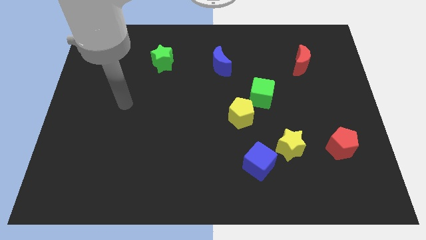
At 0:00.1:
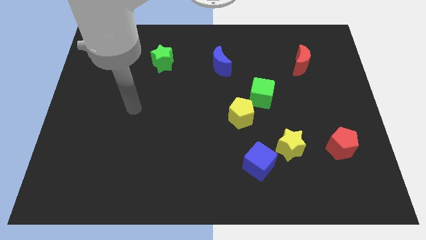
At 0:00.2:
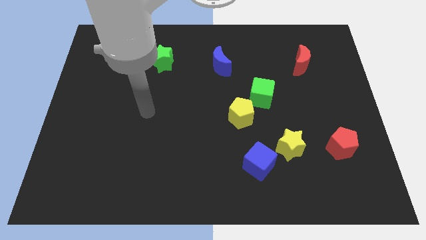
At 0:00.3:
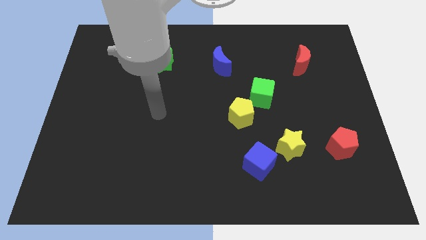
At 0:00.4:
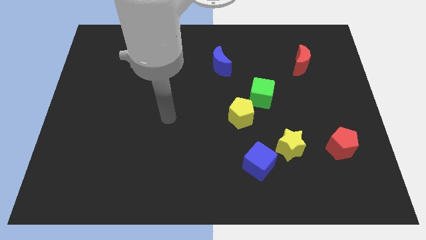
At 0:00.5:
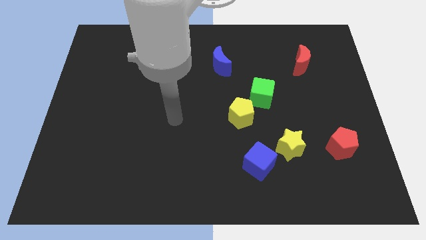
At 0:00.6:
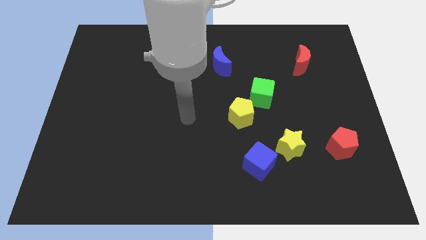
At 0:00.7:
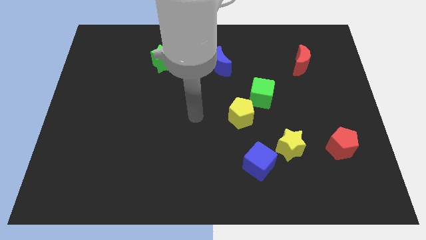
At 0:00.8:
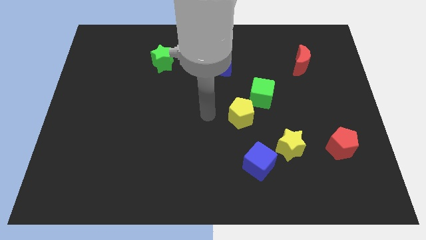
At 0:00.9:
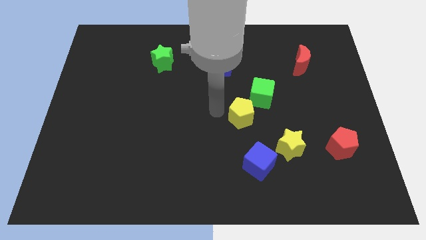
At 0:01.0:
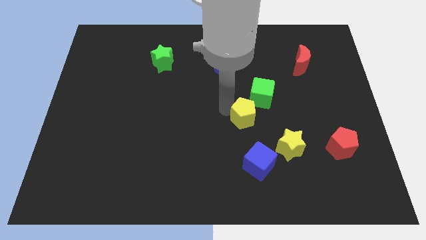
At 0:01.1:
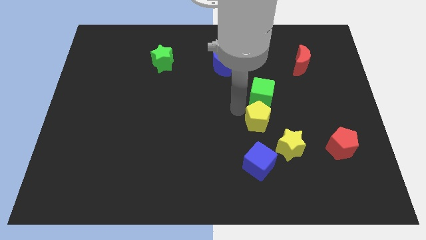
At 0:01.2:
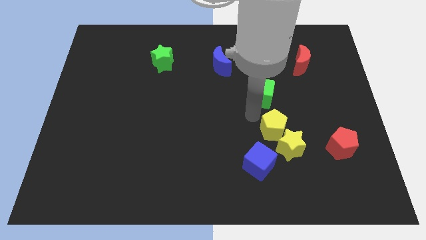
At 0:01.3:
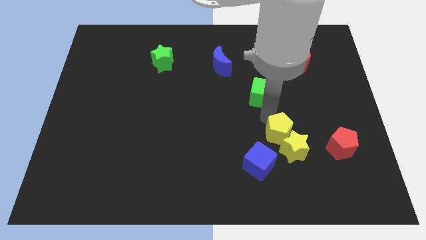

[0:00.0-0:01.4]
separate the green cube from the yellow pentagon

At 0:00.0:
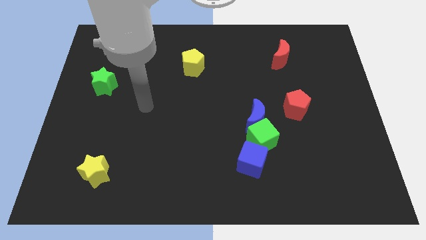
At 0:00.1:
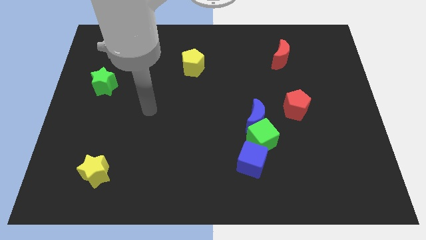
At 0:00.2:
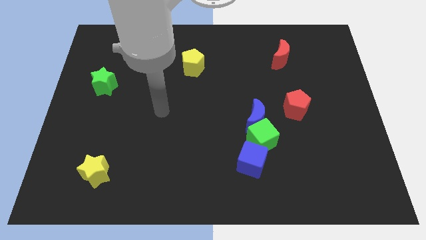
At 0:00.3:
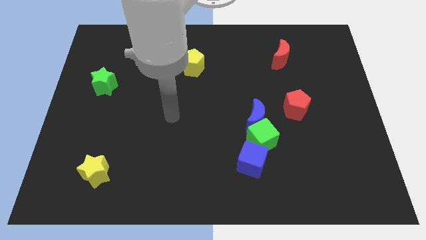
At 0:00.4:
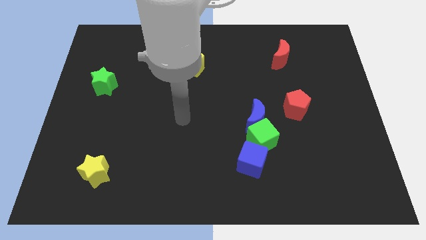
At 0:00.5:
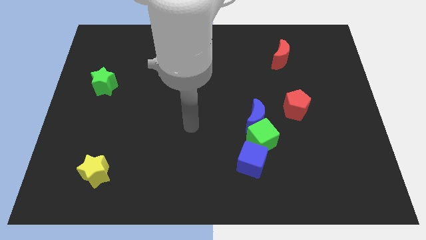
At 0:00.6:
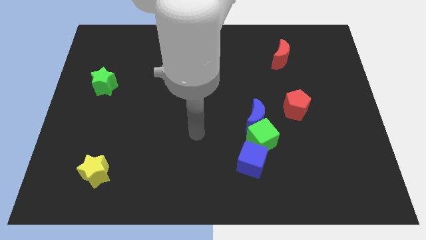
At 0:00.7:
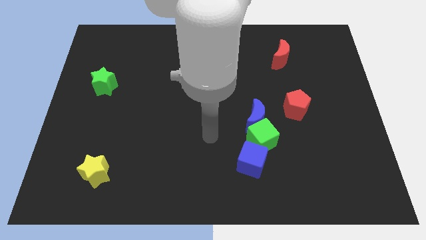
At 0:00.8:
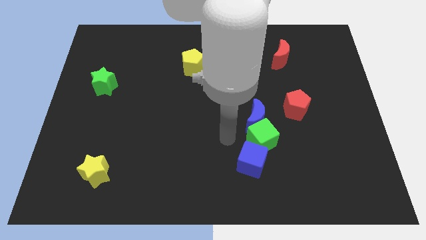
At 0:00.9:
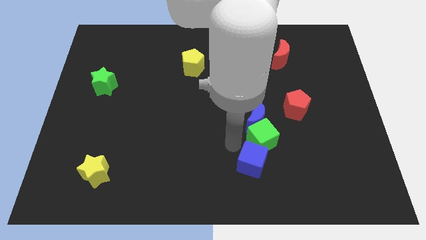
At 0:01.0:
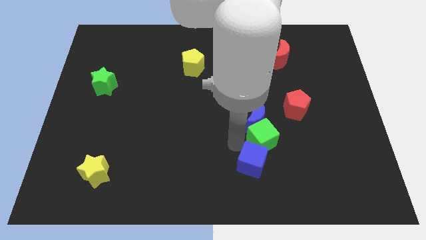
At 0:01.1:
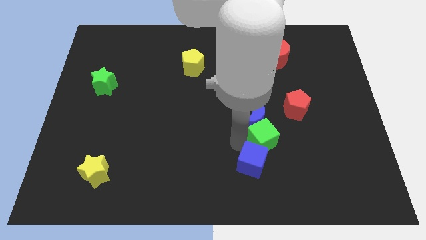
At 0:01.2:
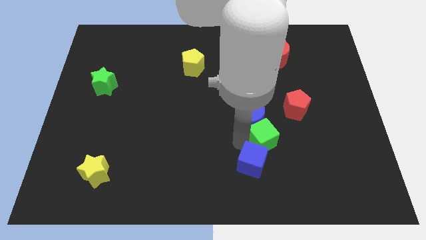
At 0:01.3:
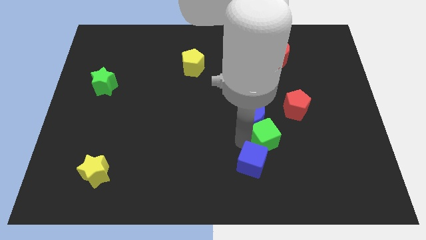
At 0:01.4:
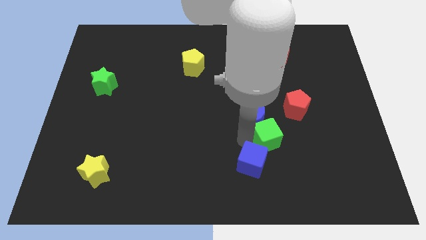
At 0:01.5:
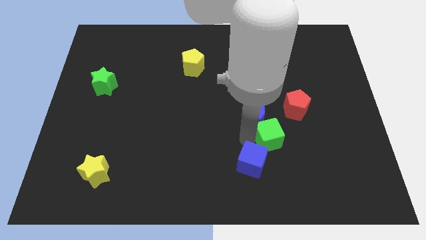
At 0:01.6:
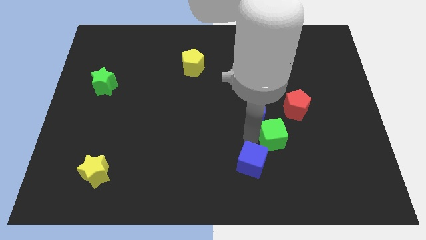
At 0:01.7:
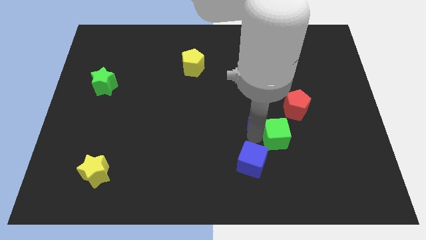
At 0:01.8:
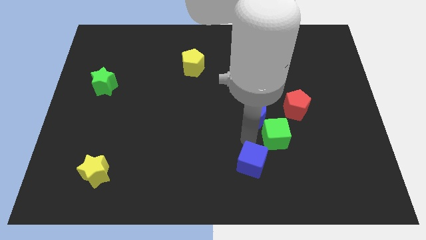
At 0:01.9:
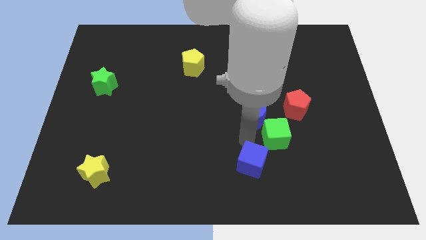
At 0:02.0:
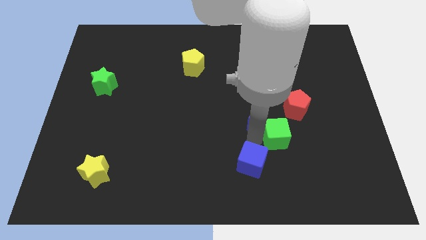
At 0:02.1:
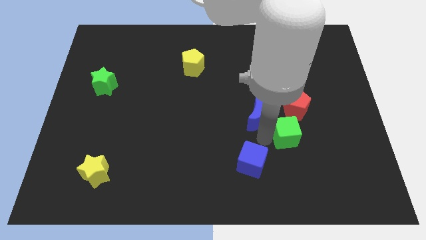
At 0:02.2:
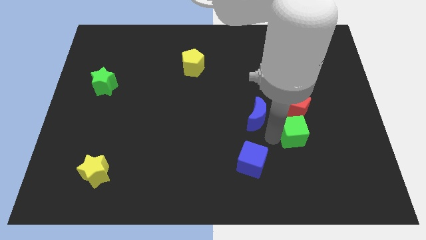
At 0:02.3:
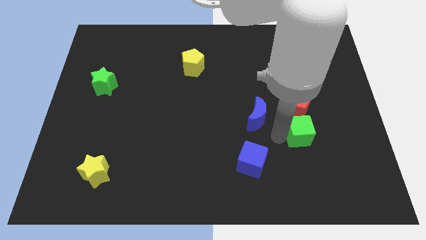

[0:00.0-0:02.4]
separate the green cube from the blue moon and blue cube

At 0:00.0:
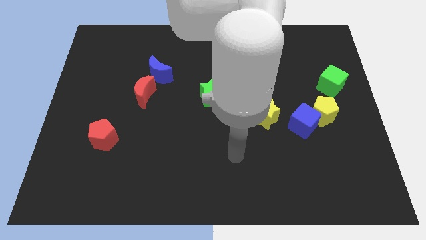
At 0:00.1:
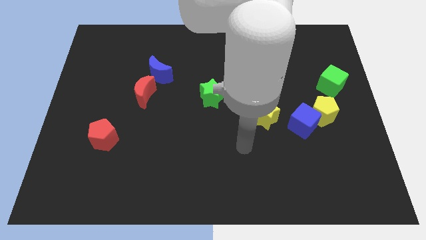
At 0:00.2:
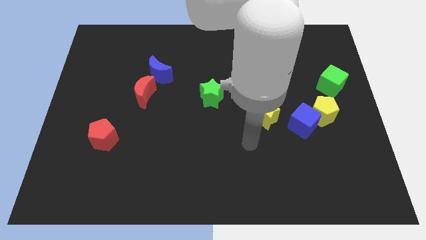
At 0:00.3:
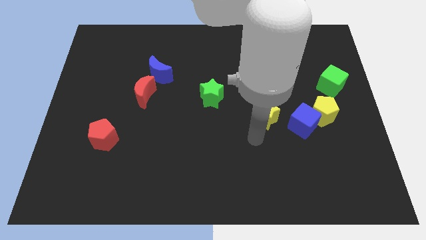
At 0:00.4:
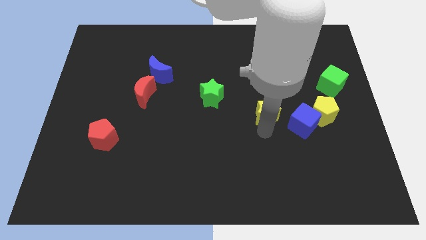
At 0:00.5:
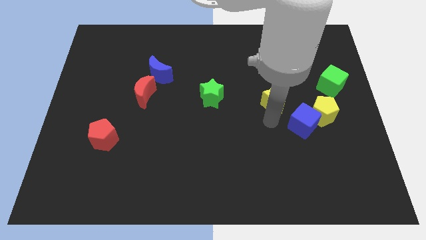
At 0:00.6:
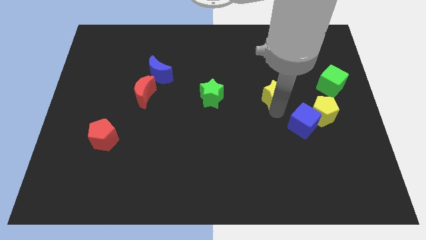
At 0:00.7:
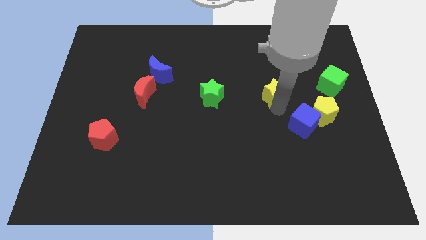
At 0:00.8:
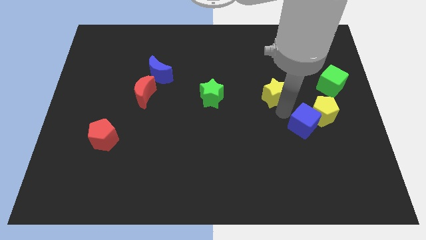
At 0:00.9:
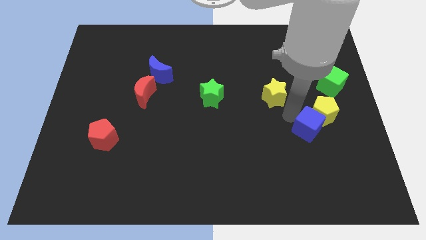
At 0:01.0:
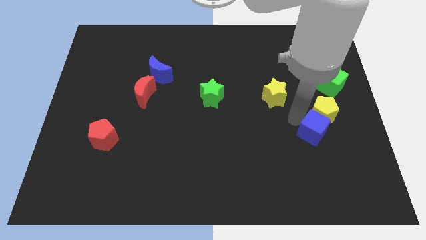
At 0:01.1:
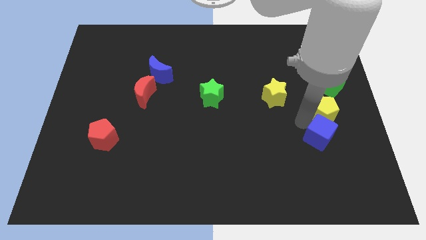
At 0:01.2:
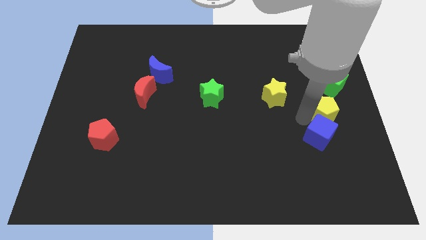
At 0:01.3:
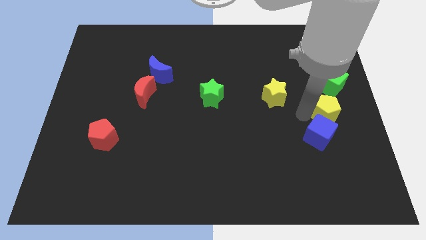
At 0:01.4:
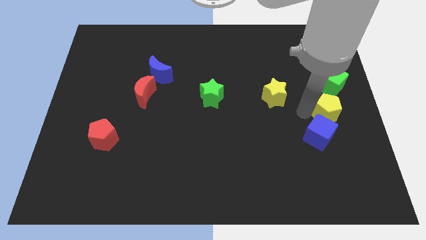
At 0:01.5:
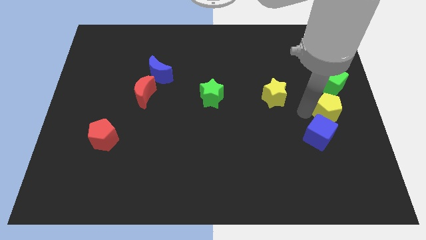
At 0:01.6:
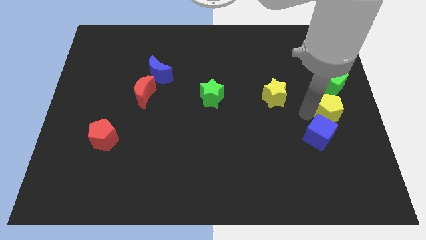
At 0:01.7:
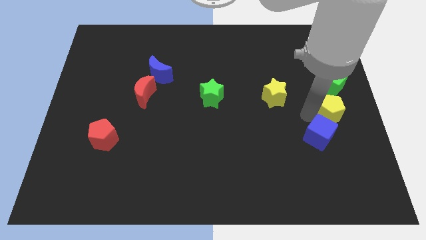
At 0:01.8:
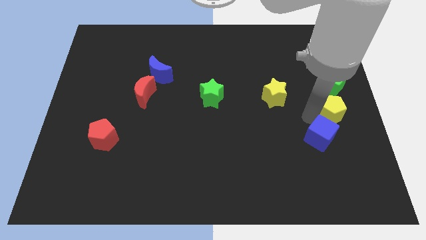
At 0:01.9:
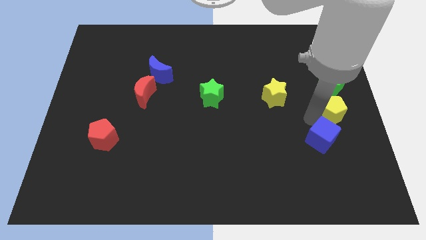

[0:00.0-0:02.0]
pull the blue cube apart from the yellow pentagon and yellow star

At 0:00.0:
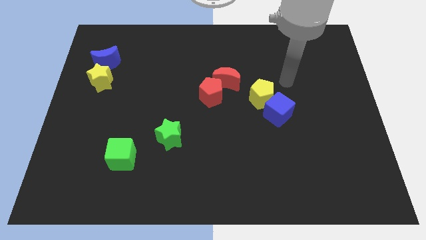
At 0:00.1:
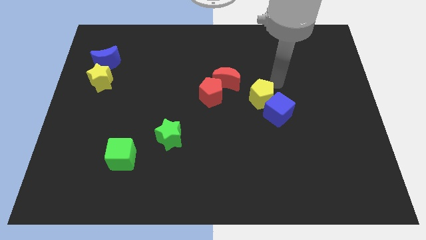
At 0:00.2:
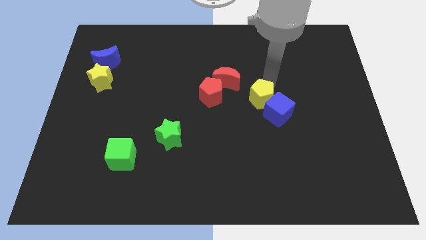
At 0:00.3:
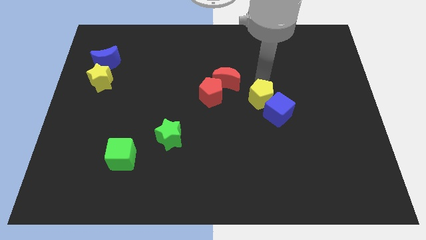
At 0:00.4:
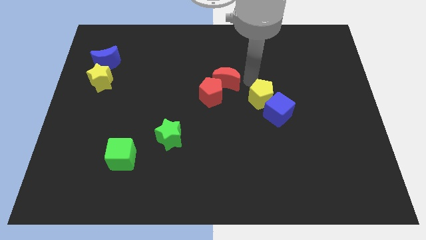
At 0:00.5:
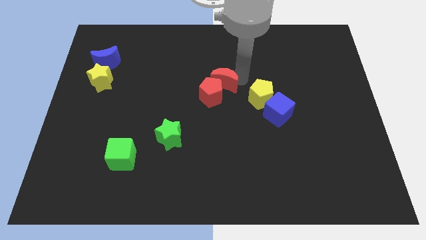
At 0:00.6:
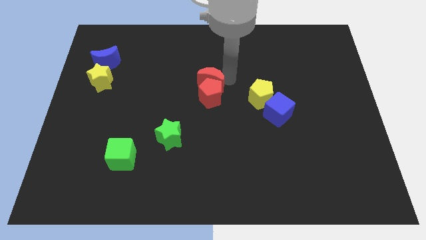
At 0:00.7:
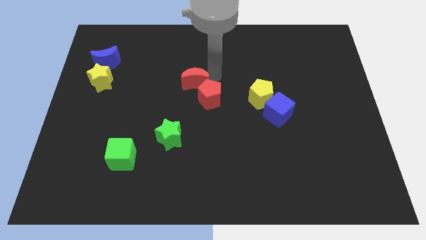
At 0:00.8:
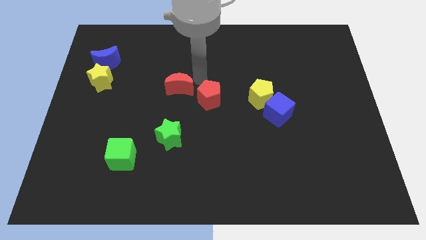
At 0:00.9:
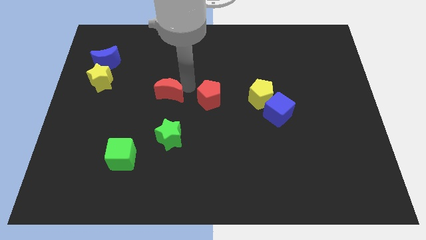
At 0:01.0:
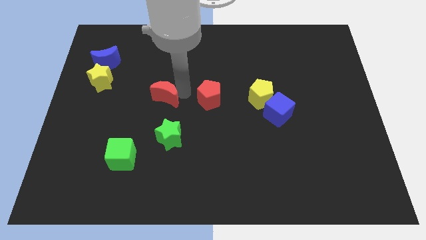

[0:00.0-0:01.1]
move the red pentagon away from the red moon

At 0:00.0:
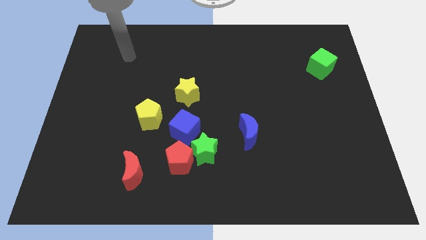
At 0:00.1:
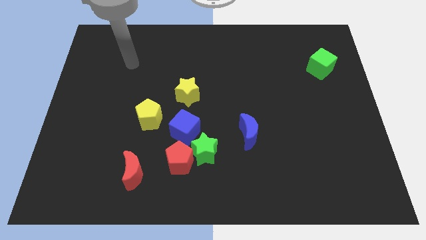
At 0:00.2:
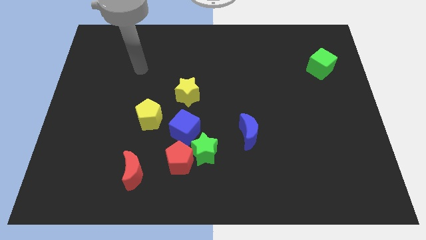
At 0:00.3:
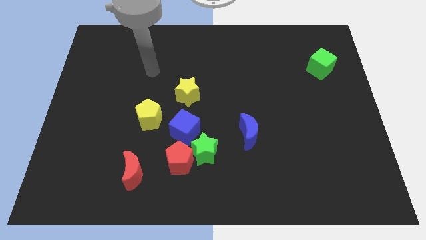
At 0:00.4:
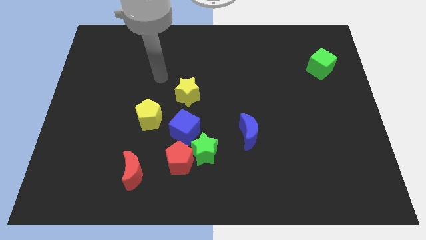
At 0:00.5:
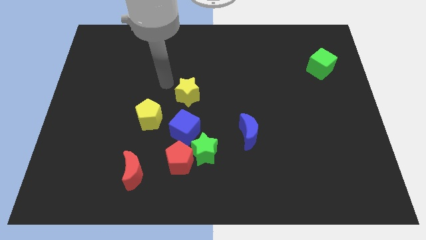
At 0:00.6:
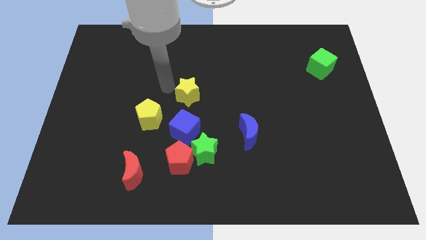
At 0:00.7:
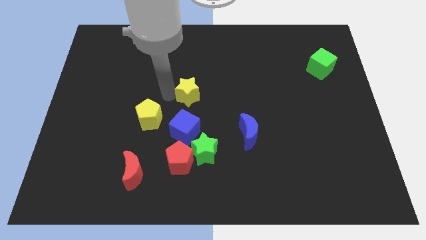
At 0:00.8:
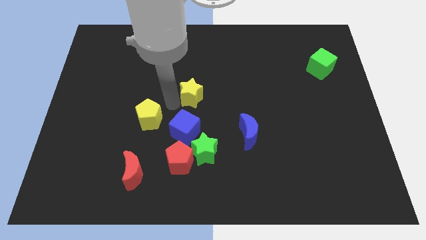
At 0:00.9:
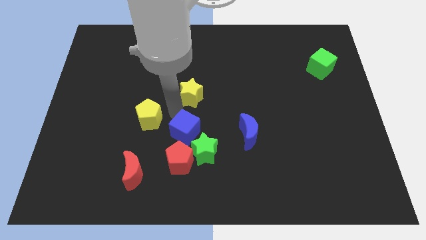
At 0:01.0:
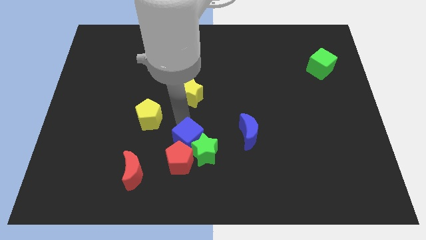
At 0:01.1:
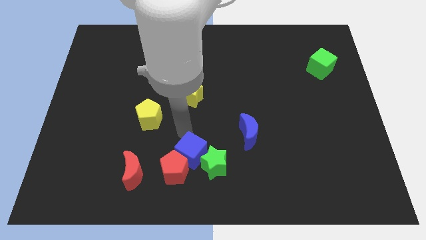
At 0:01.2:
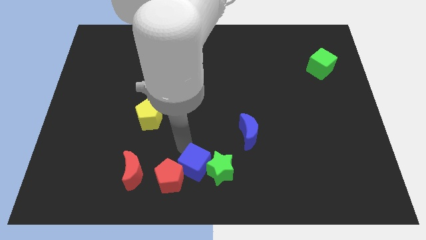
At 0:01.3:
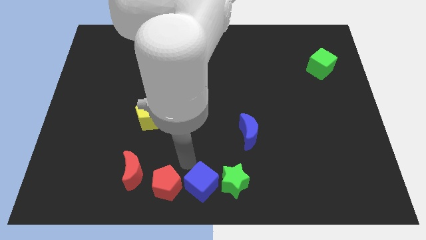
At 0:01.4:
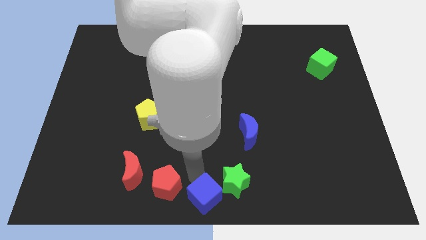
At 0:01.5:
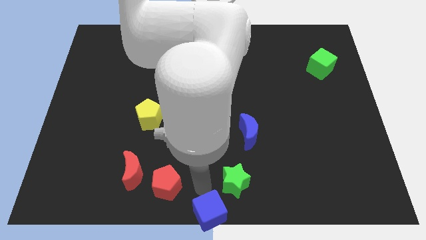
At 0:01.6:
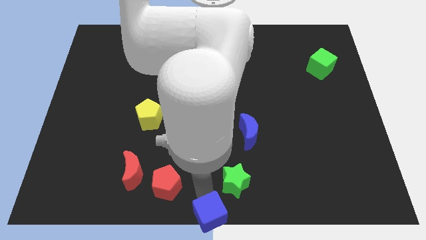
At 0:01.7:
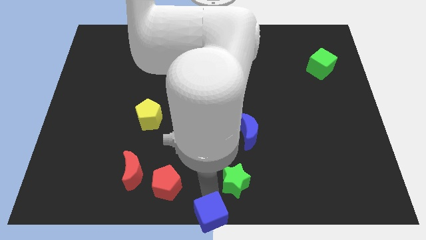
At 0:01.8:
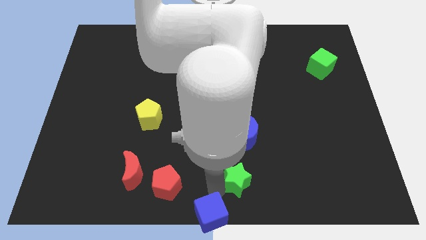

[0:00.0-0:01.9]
separate the green star from the red pentagon and blue cube

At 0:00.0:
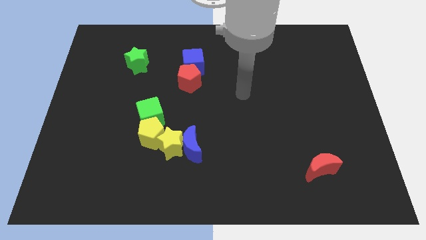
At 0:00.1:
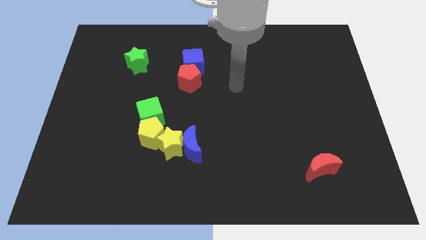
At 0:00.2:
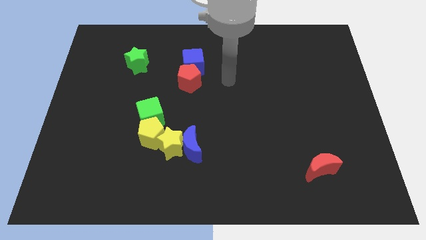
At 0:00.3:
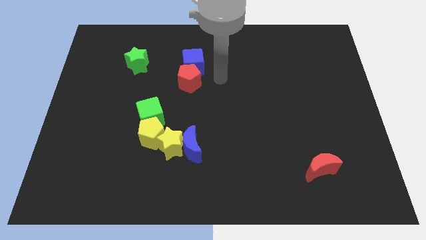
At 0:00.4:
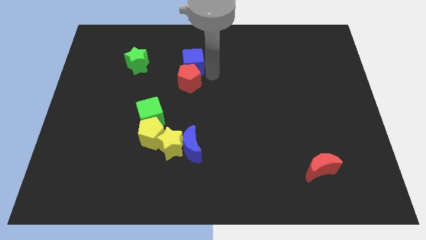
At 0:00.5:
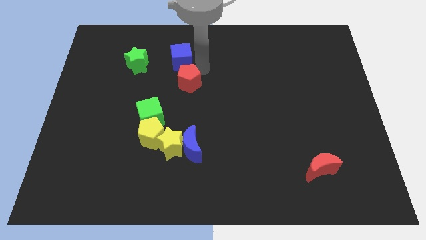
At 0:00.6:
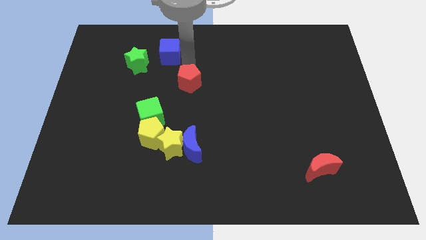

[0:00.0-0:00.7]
pull the red pentagon apart from the blue cube
